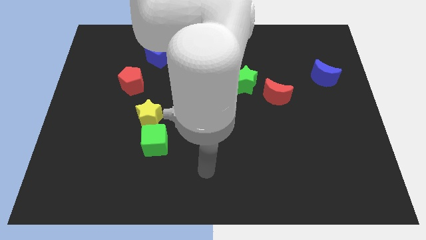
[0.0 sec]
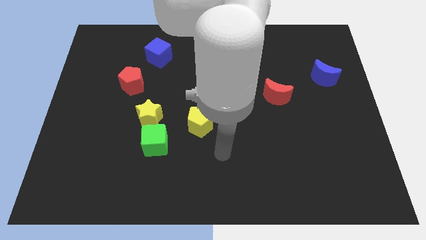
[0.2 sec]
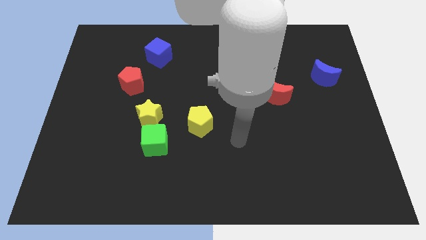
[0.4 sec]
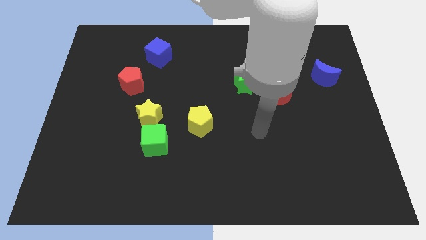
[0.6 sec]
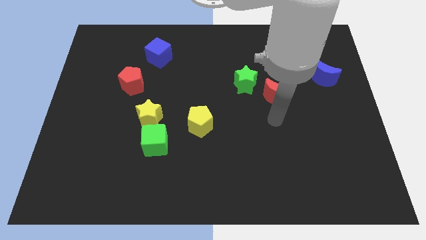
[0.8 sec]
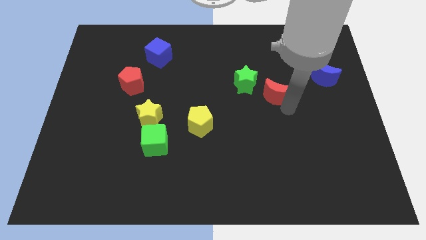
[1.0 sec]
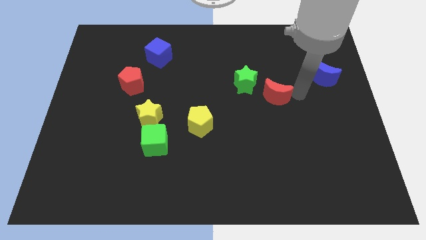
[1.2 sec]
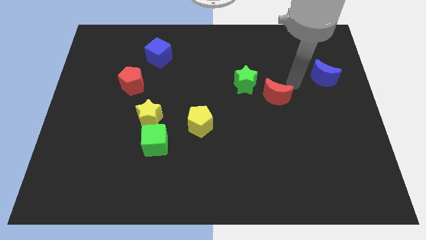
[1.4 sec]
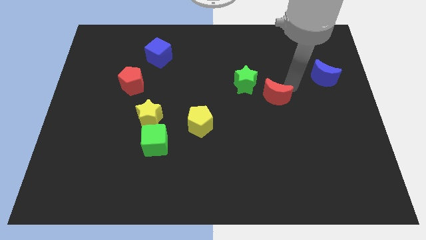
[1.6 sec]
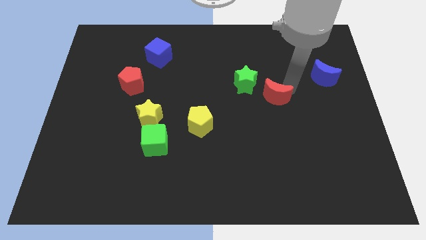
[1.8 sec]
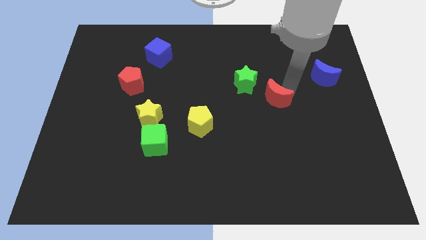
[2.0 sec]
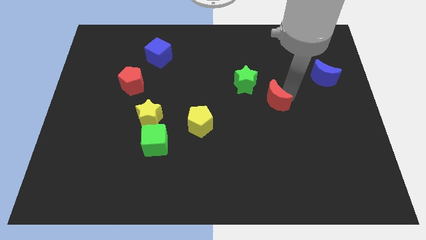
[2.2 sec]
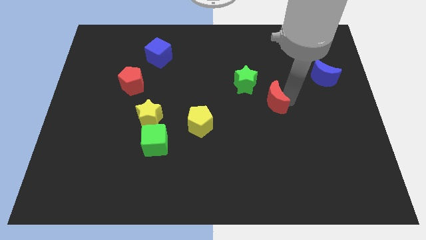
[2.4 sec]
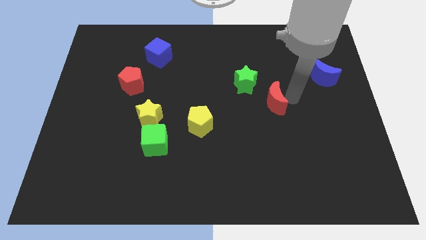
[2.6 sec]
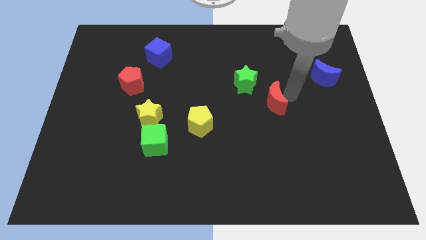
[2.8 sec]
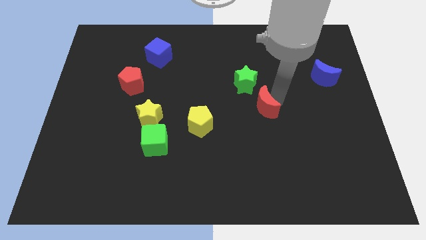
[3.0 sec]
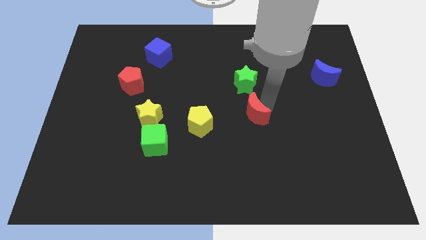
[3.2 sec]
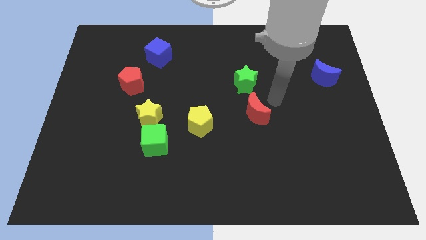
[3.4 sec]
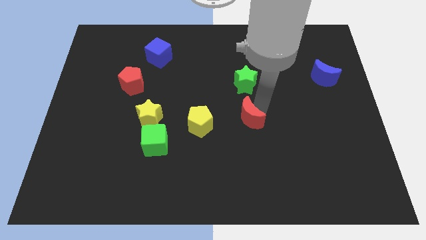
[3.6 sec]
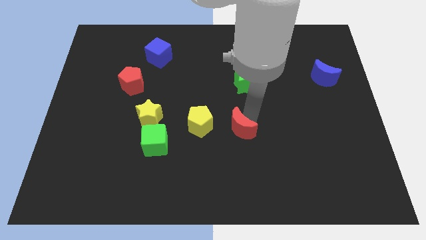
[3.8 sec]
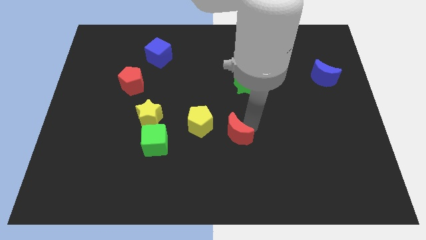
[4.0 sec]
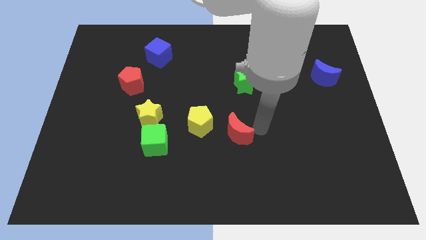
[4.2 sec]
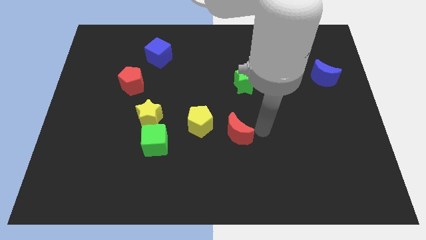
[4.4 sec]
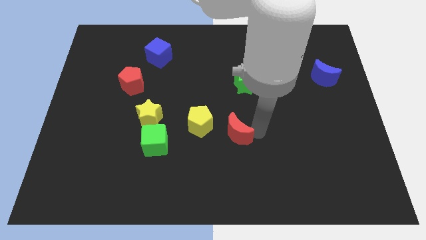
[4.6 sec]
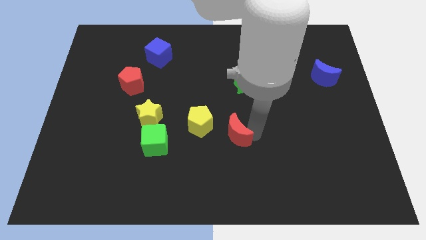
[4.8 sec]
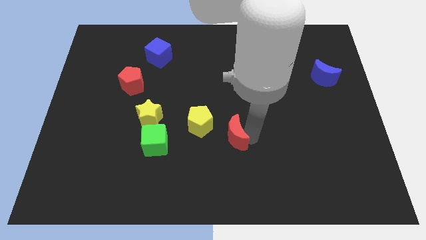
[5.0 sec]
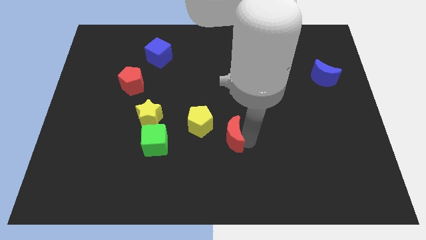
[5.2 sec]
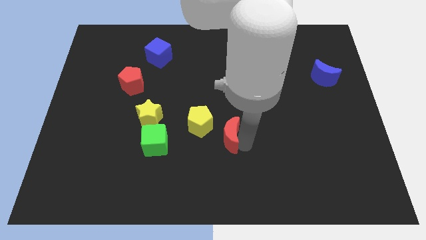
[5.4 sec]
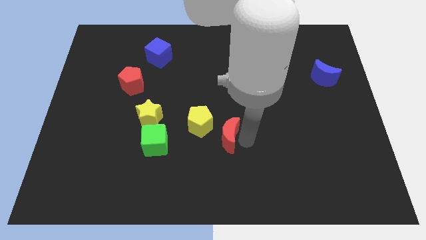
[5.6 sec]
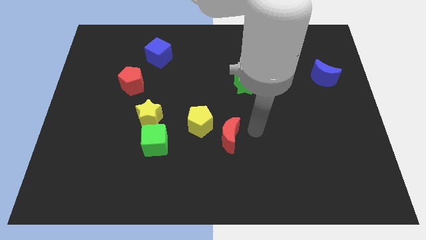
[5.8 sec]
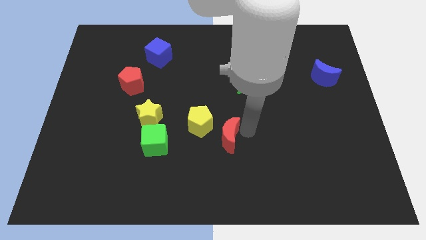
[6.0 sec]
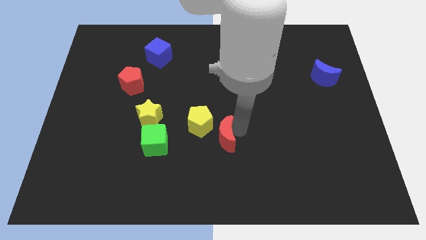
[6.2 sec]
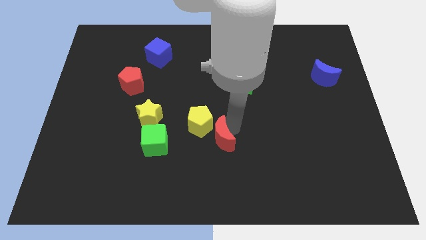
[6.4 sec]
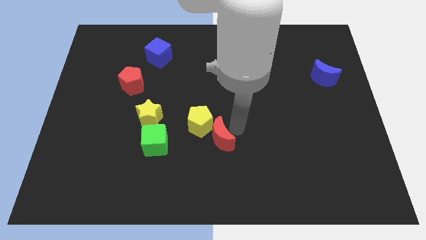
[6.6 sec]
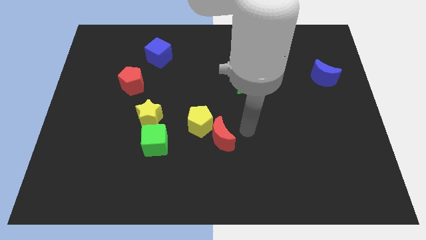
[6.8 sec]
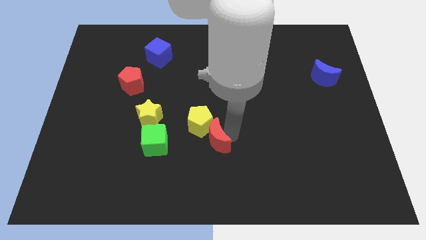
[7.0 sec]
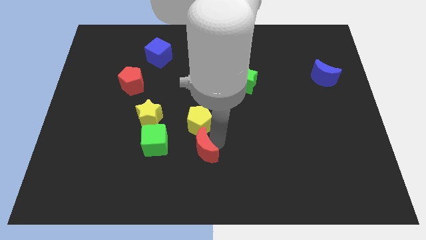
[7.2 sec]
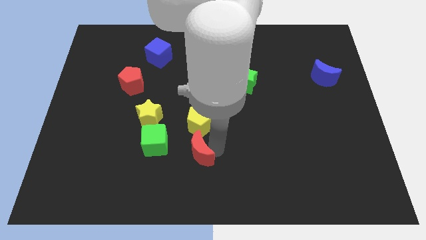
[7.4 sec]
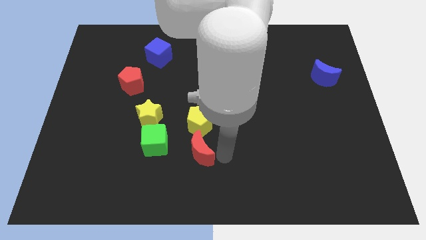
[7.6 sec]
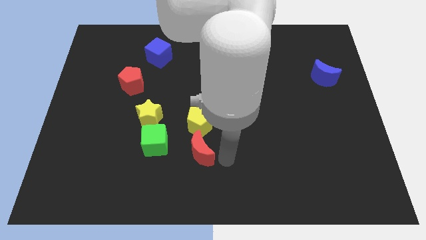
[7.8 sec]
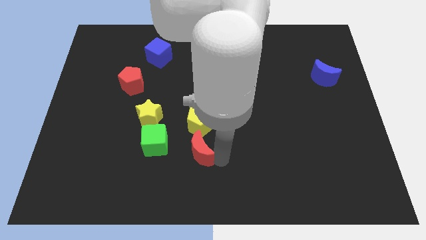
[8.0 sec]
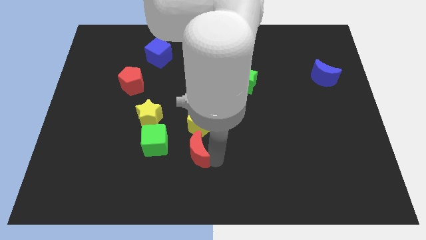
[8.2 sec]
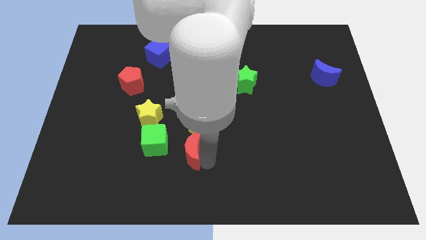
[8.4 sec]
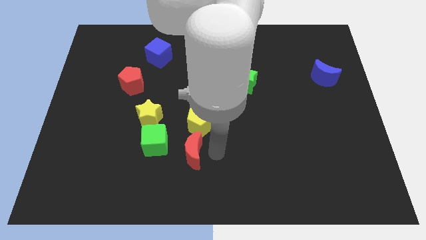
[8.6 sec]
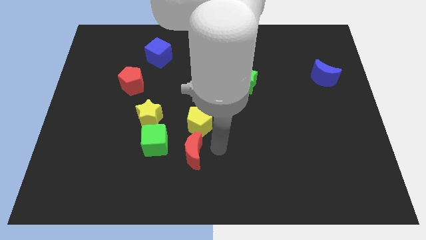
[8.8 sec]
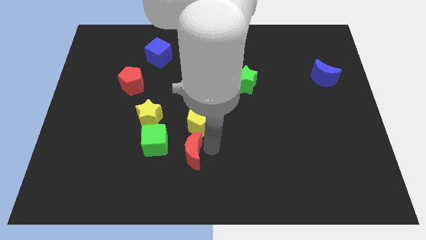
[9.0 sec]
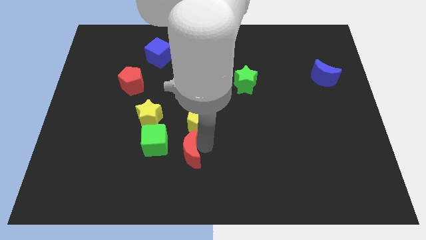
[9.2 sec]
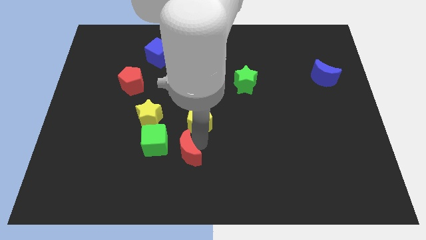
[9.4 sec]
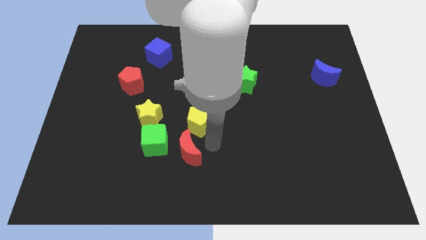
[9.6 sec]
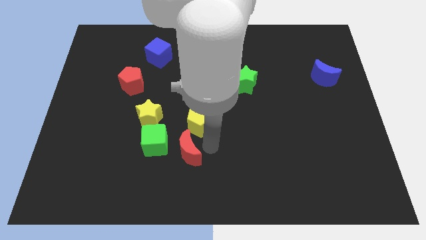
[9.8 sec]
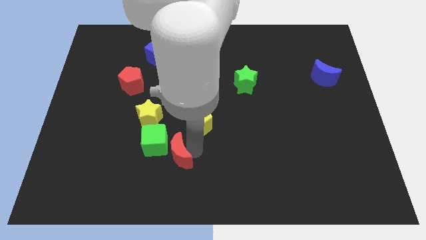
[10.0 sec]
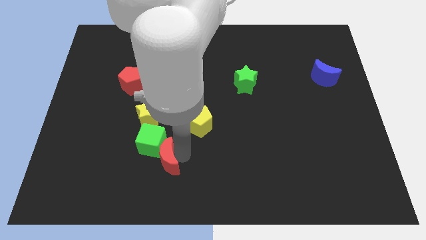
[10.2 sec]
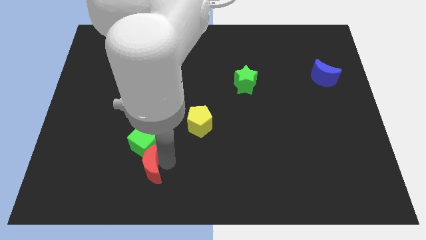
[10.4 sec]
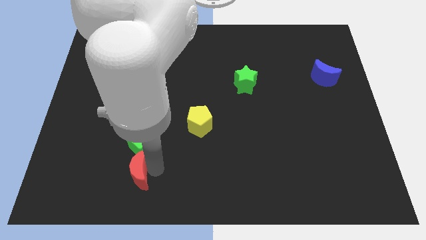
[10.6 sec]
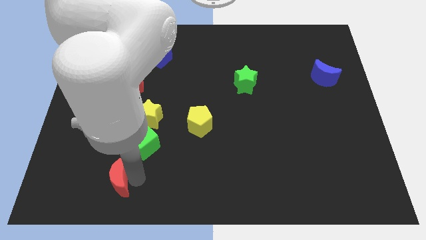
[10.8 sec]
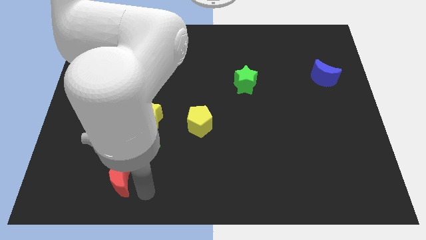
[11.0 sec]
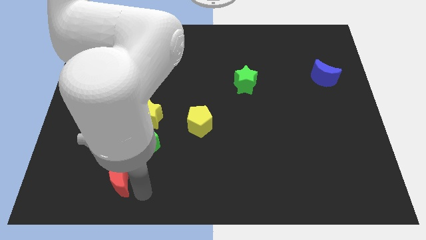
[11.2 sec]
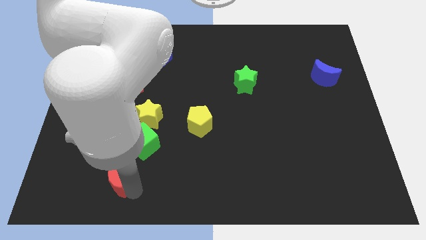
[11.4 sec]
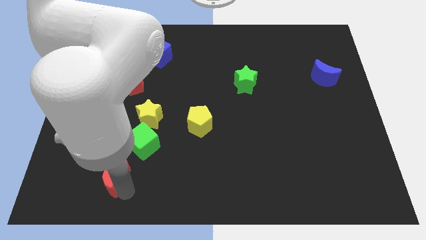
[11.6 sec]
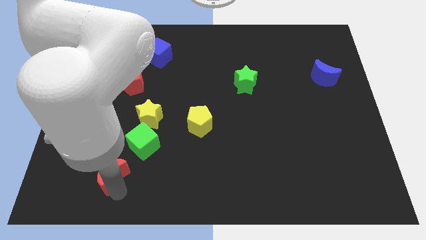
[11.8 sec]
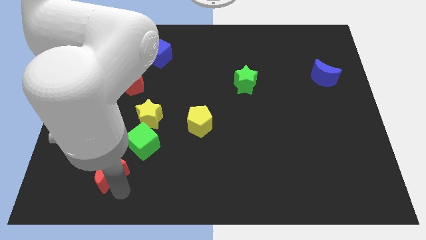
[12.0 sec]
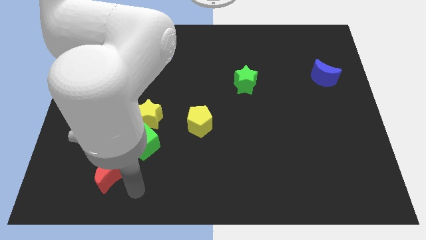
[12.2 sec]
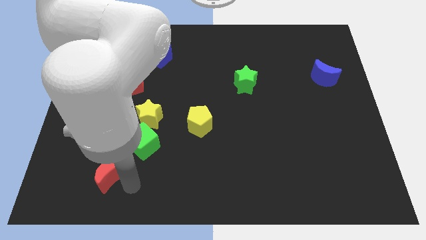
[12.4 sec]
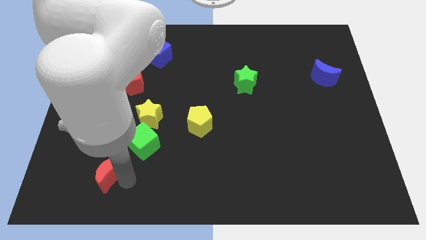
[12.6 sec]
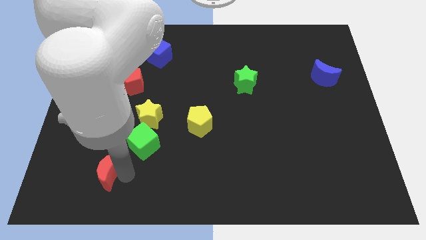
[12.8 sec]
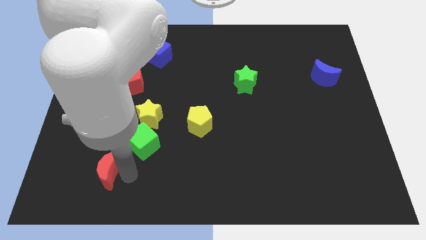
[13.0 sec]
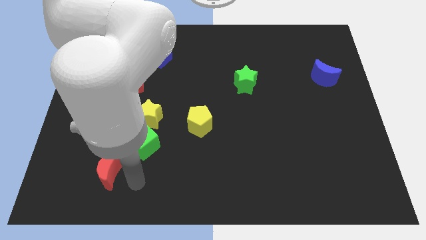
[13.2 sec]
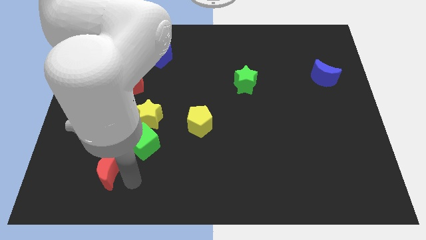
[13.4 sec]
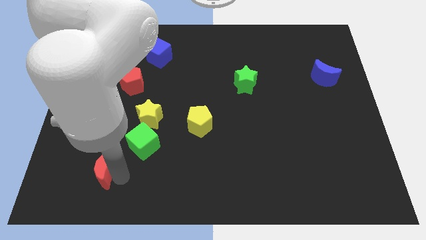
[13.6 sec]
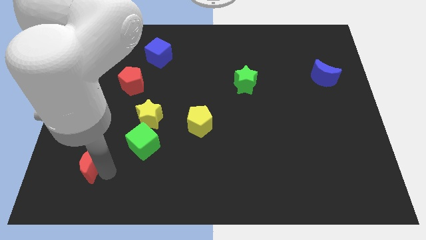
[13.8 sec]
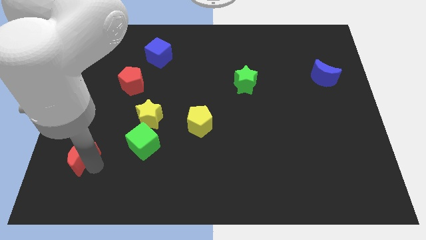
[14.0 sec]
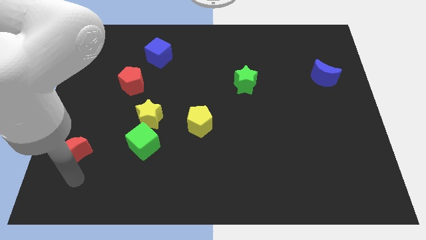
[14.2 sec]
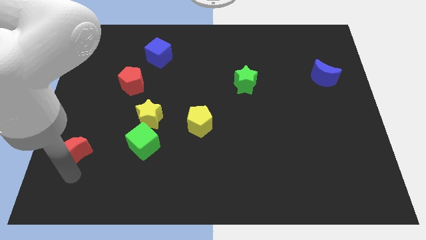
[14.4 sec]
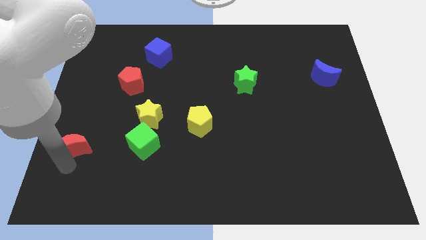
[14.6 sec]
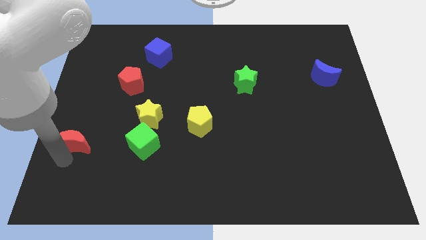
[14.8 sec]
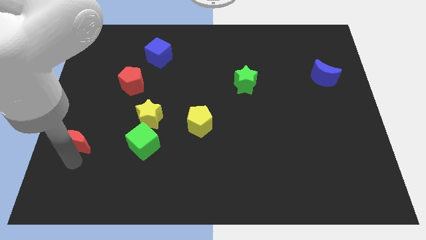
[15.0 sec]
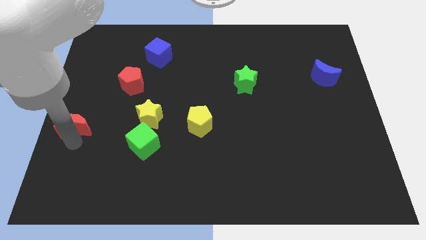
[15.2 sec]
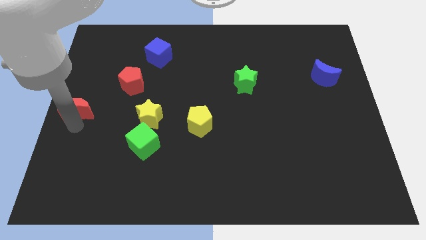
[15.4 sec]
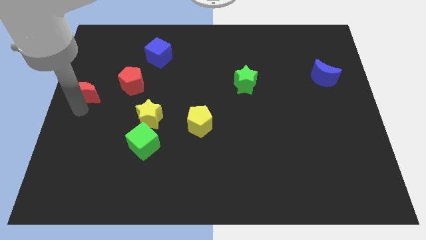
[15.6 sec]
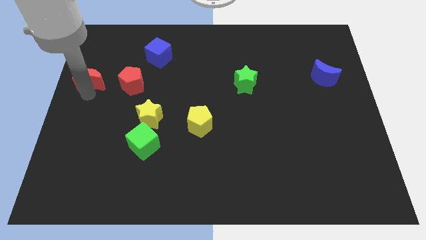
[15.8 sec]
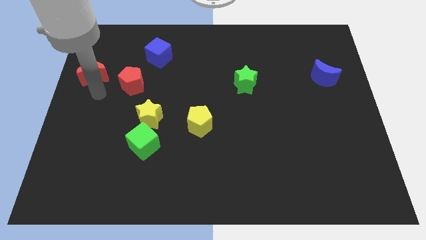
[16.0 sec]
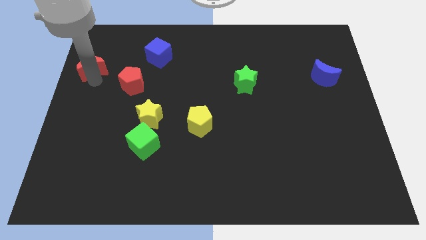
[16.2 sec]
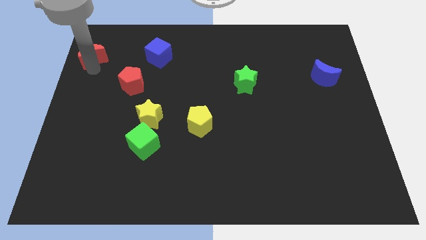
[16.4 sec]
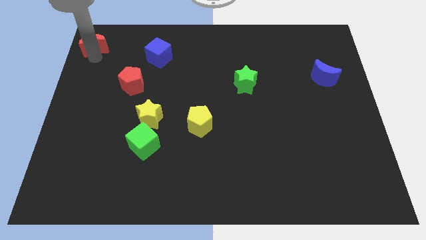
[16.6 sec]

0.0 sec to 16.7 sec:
push the red moon to the upper left corner
